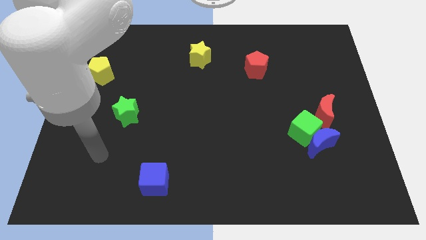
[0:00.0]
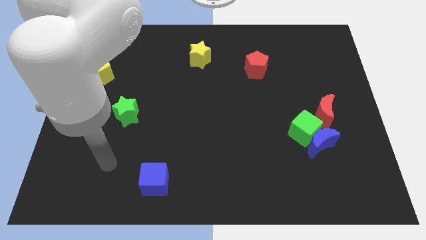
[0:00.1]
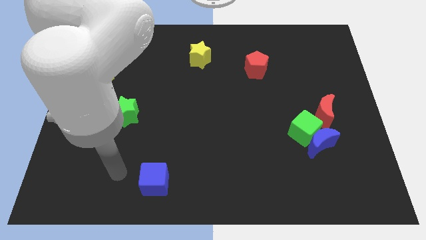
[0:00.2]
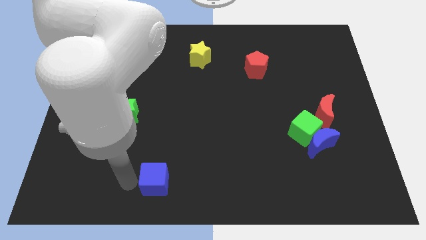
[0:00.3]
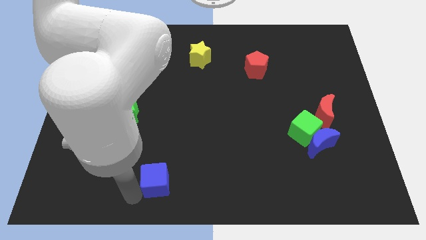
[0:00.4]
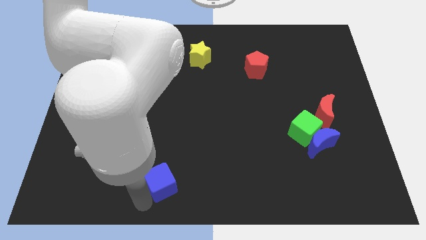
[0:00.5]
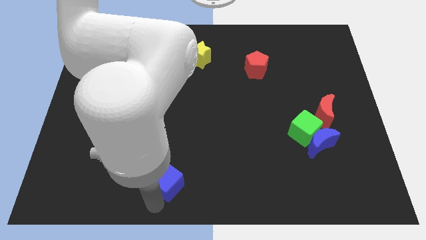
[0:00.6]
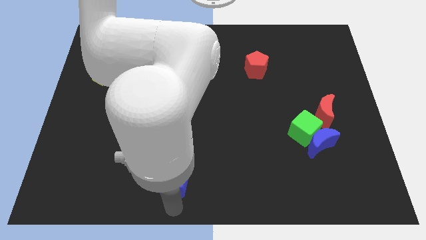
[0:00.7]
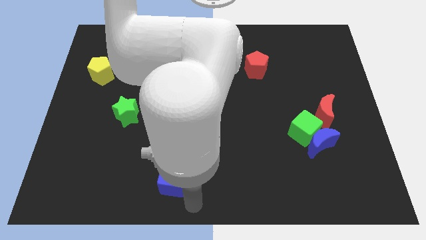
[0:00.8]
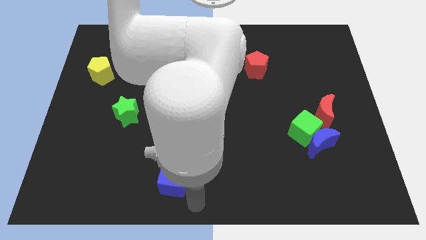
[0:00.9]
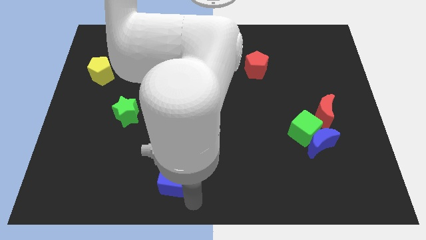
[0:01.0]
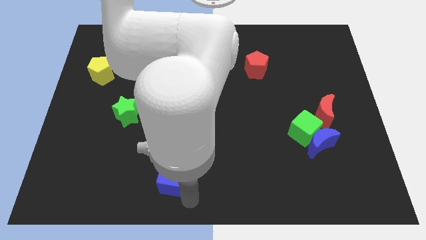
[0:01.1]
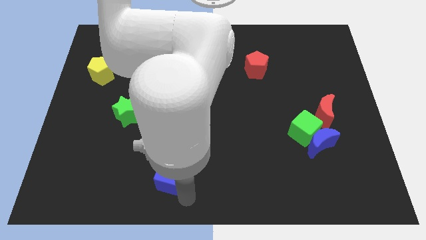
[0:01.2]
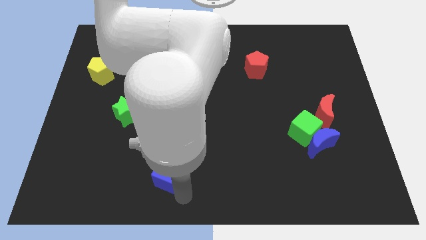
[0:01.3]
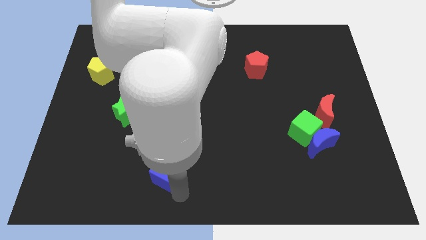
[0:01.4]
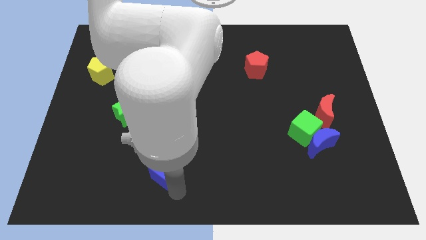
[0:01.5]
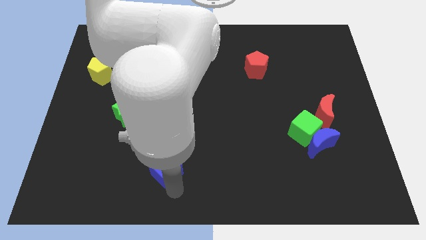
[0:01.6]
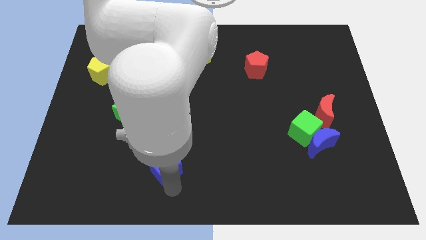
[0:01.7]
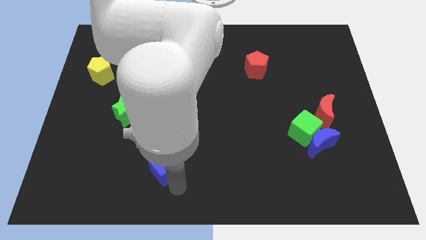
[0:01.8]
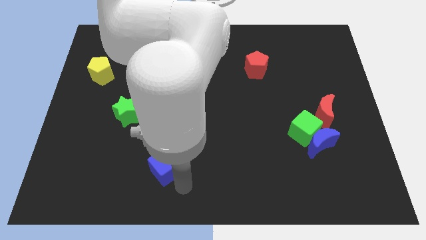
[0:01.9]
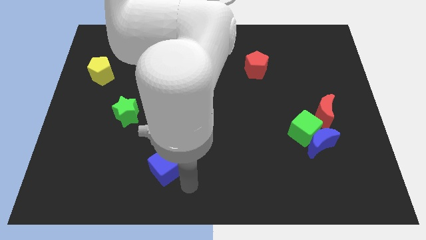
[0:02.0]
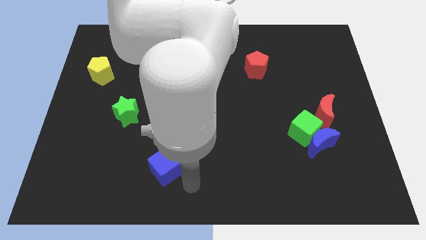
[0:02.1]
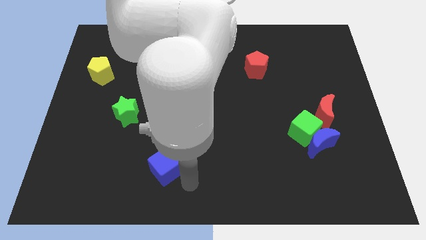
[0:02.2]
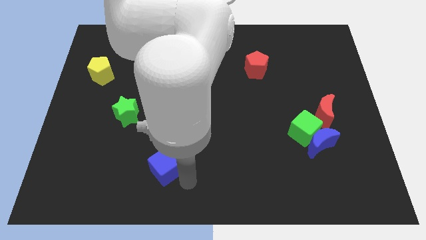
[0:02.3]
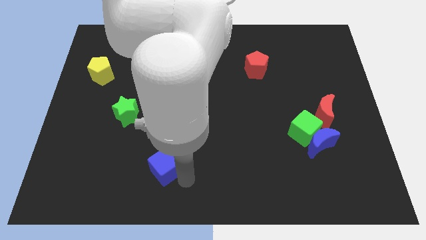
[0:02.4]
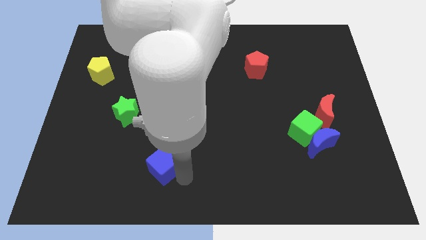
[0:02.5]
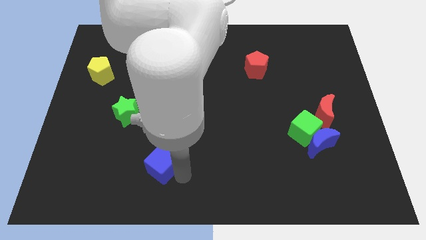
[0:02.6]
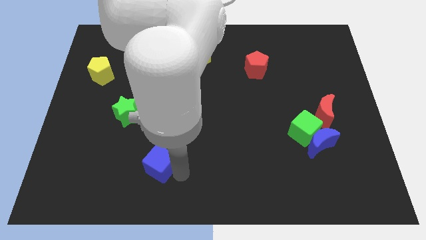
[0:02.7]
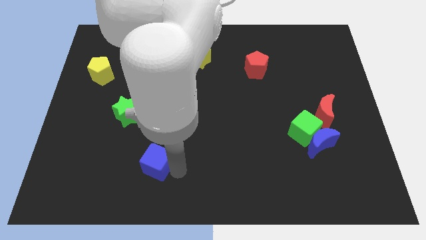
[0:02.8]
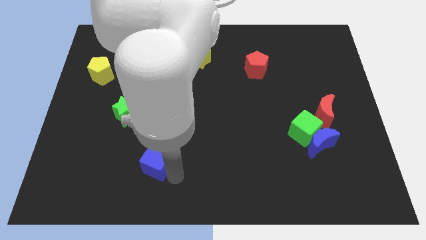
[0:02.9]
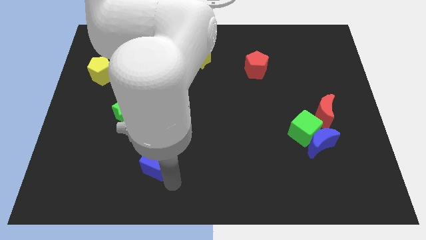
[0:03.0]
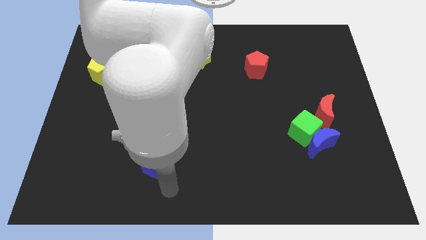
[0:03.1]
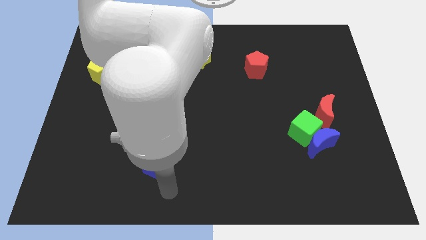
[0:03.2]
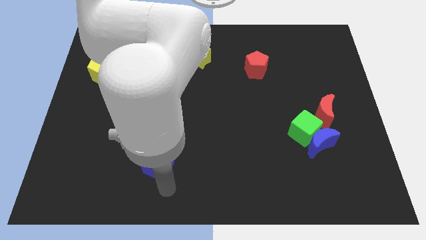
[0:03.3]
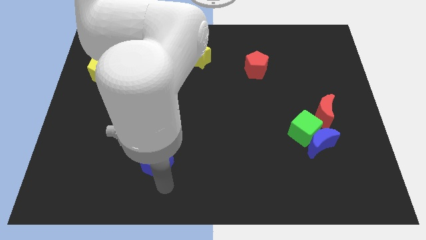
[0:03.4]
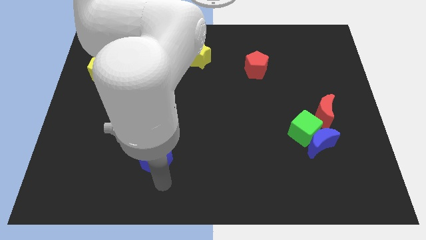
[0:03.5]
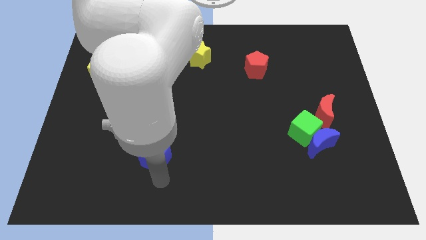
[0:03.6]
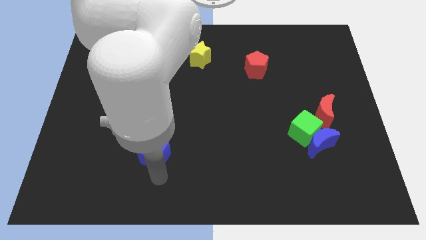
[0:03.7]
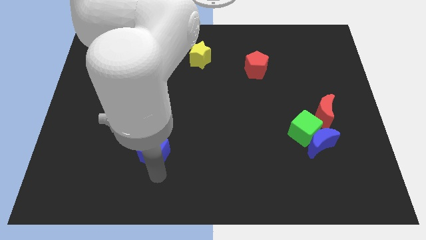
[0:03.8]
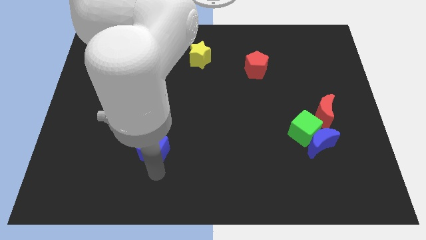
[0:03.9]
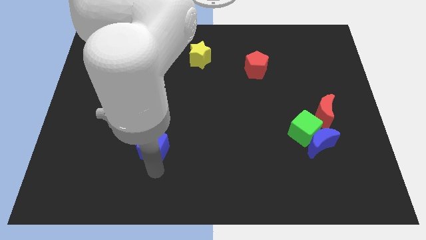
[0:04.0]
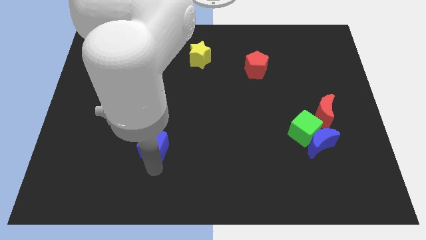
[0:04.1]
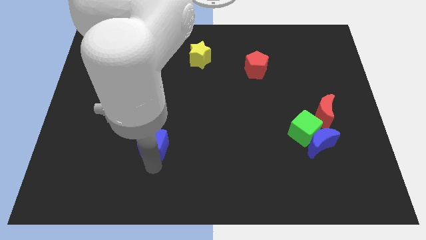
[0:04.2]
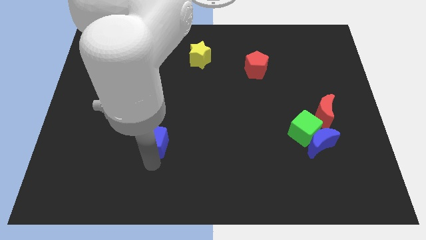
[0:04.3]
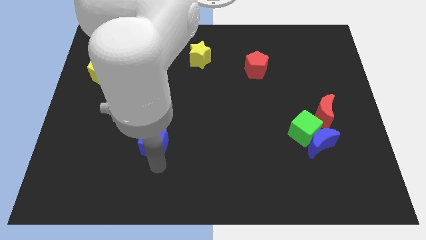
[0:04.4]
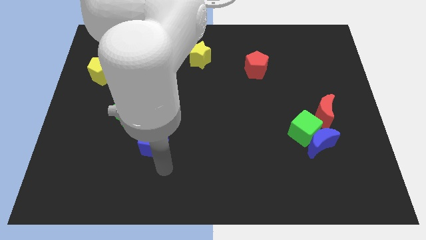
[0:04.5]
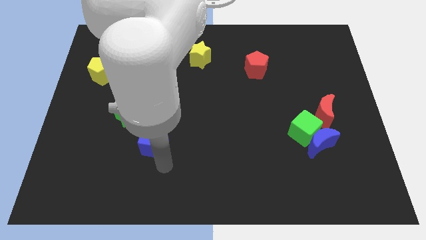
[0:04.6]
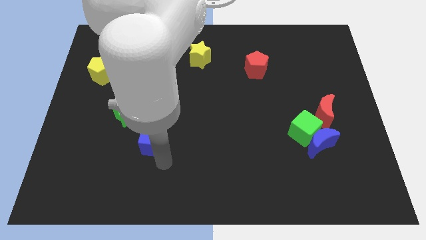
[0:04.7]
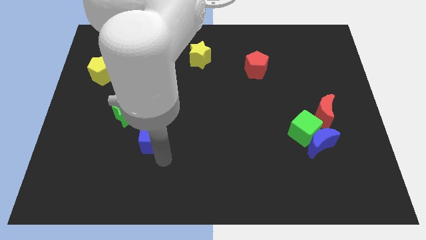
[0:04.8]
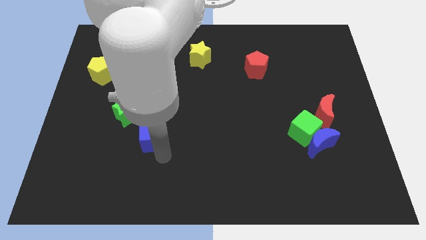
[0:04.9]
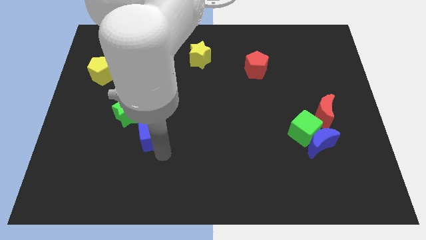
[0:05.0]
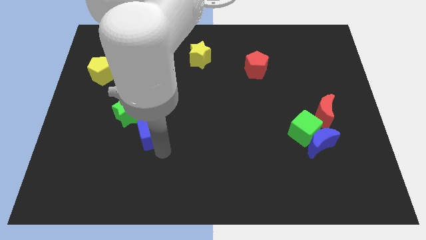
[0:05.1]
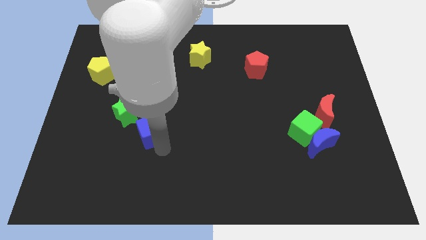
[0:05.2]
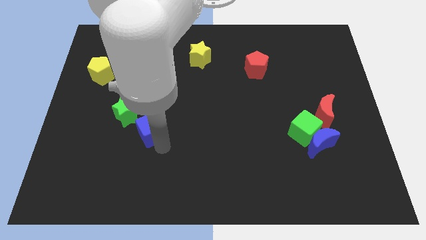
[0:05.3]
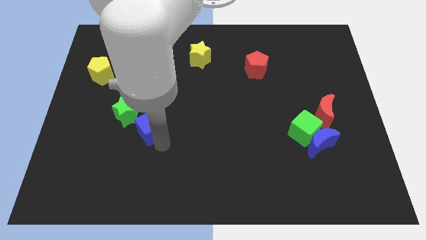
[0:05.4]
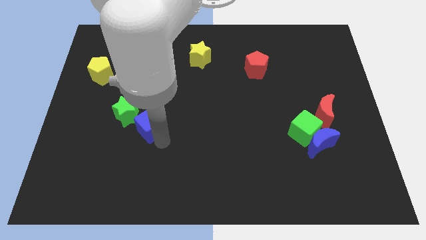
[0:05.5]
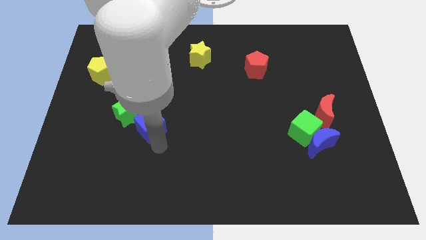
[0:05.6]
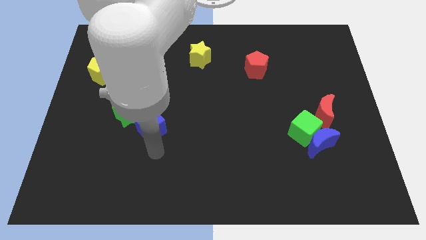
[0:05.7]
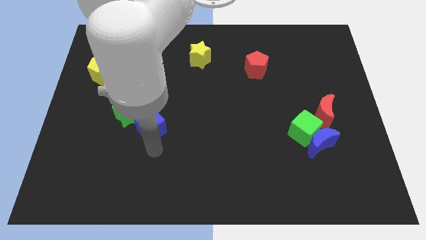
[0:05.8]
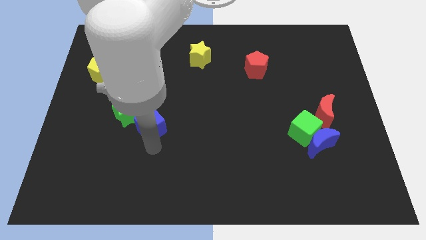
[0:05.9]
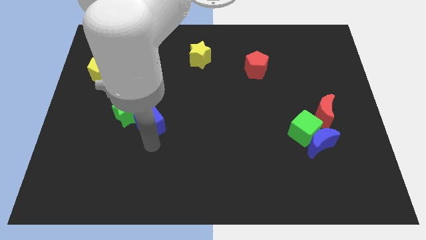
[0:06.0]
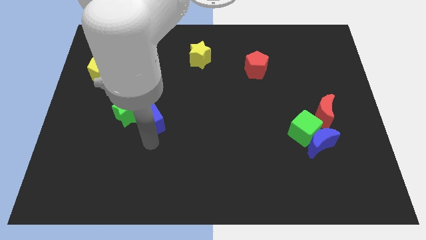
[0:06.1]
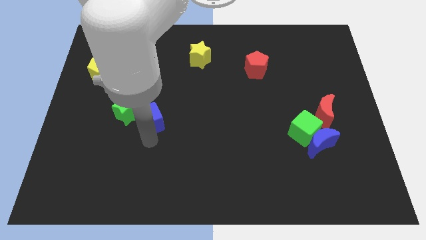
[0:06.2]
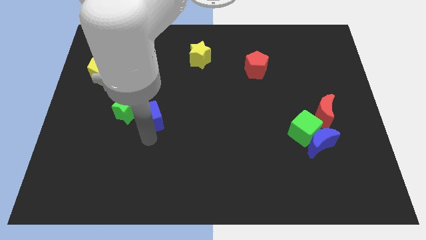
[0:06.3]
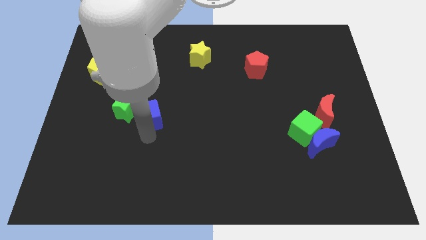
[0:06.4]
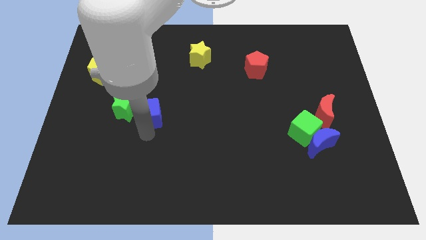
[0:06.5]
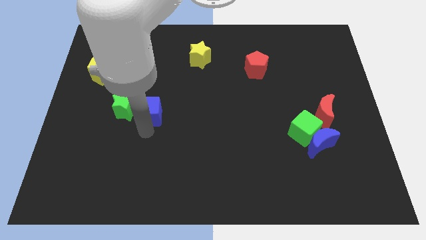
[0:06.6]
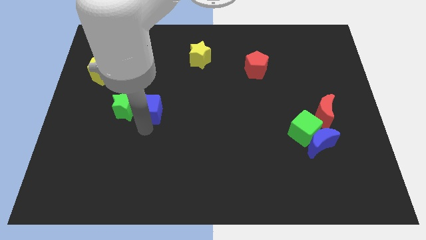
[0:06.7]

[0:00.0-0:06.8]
slide the blue cube to the top right of the green star
